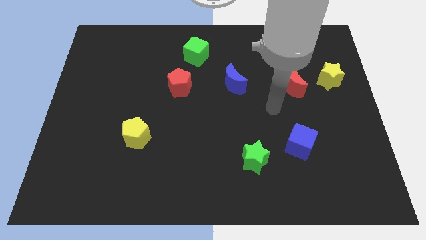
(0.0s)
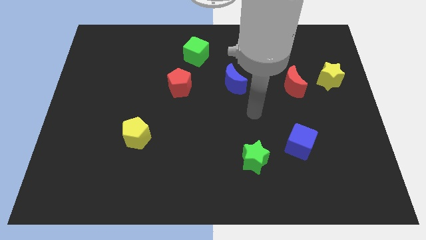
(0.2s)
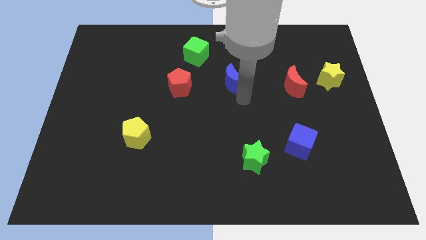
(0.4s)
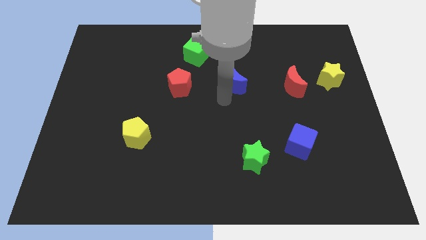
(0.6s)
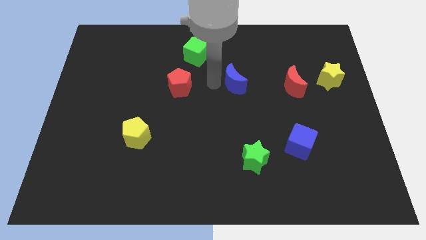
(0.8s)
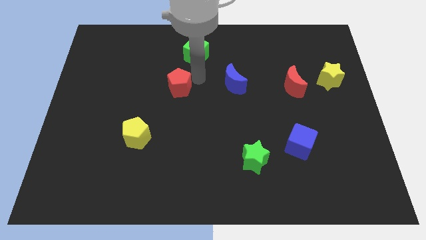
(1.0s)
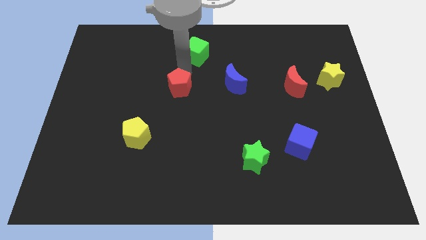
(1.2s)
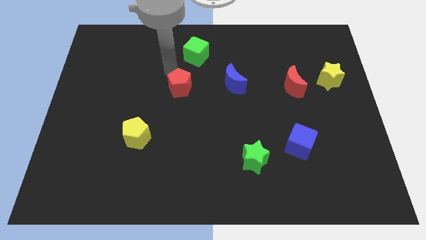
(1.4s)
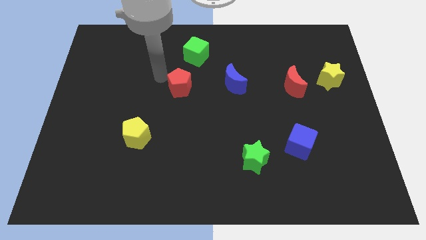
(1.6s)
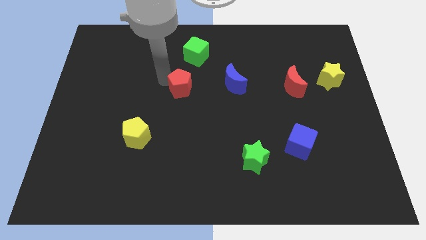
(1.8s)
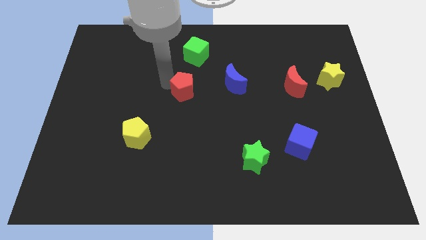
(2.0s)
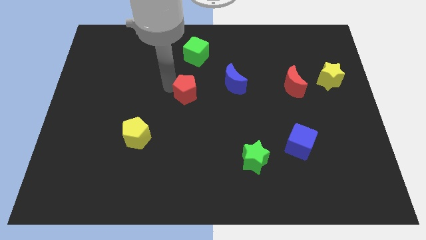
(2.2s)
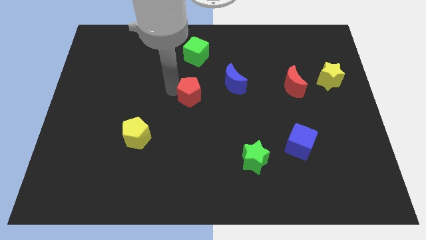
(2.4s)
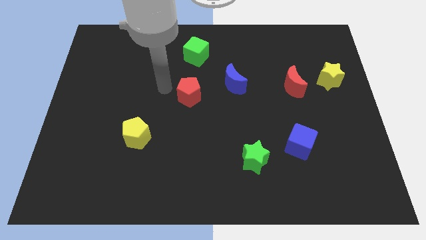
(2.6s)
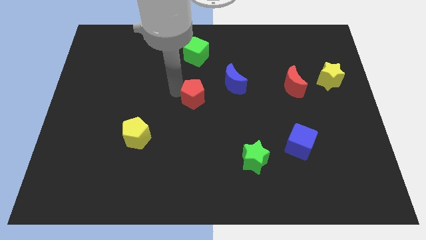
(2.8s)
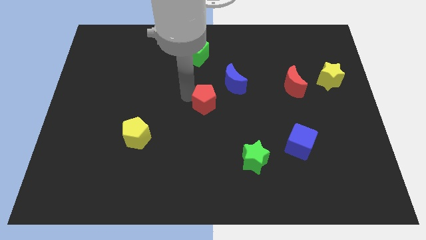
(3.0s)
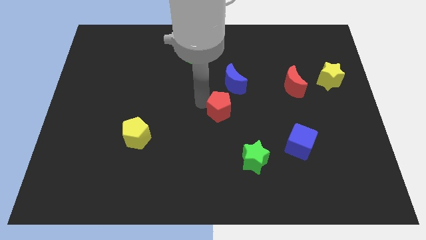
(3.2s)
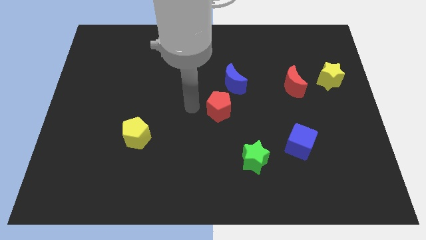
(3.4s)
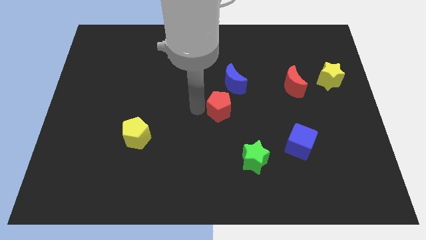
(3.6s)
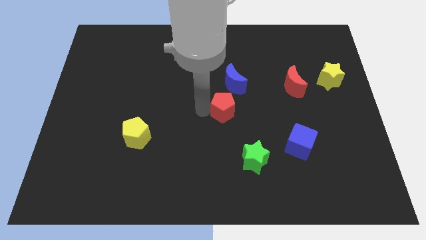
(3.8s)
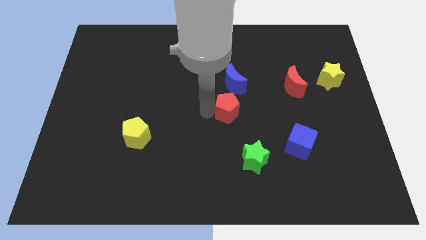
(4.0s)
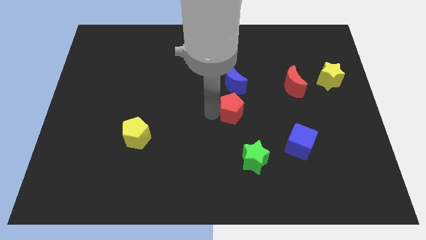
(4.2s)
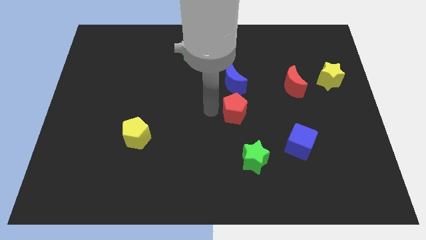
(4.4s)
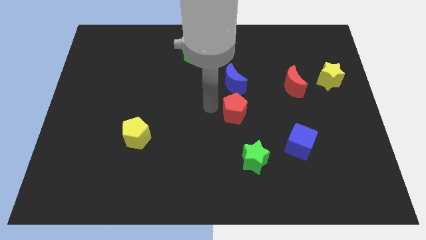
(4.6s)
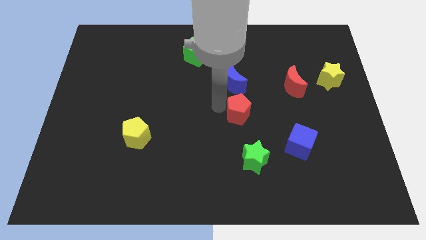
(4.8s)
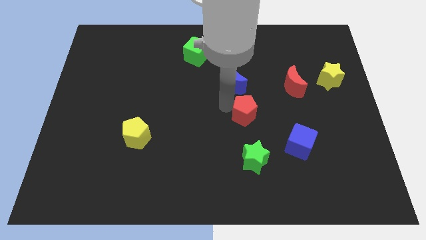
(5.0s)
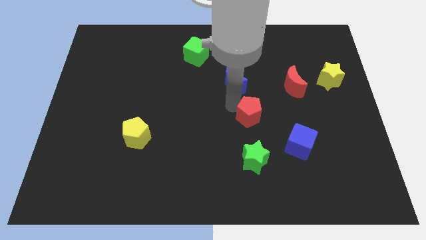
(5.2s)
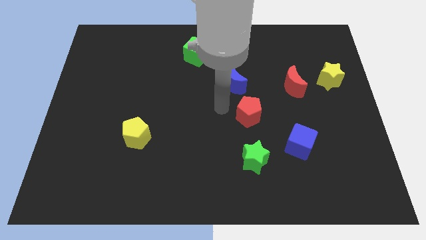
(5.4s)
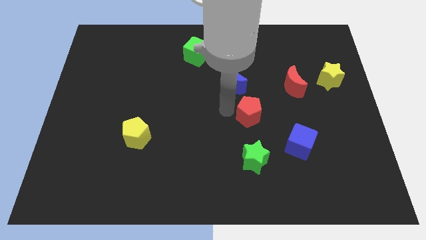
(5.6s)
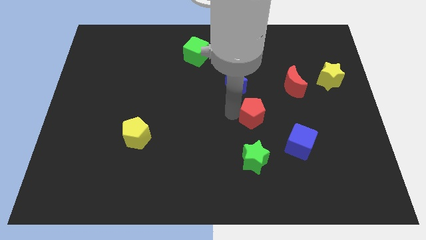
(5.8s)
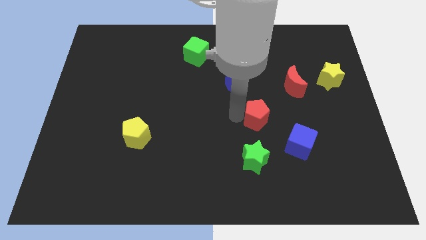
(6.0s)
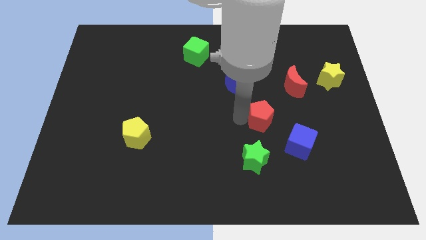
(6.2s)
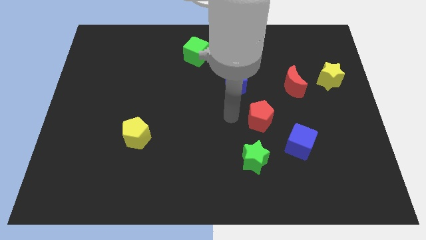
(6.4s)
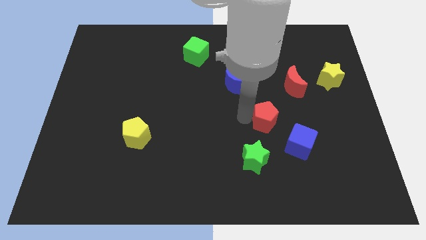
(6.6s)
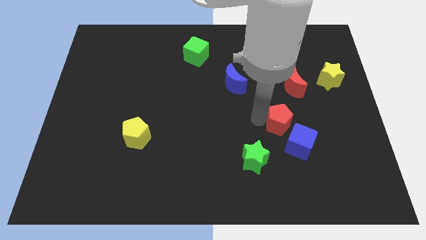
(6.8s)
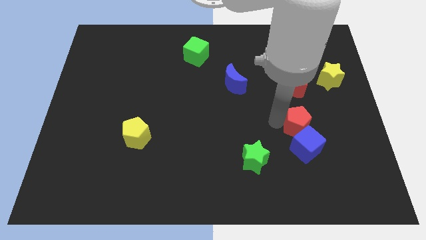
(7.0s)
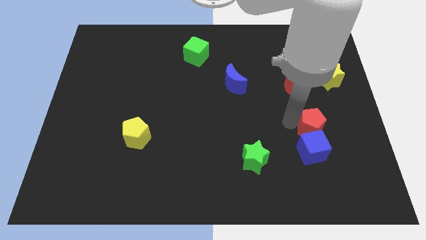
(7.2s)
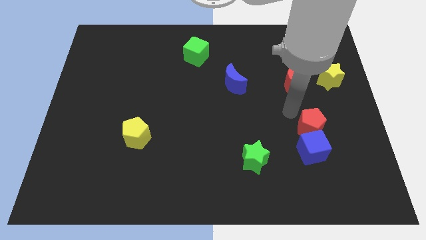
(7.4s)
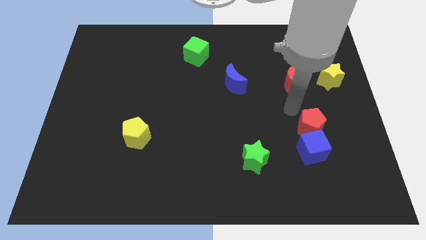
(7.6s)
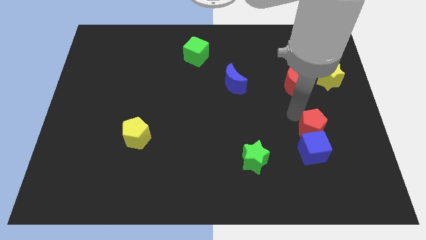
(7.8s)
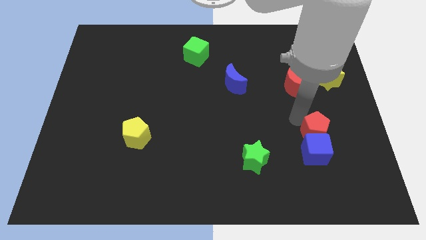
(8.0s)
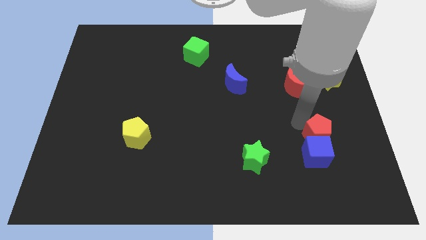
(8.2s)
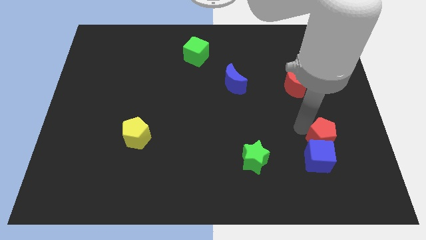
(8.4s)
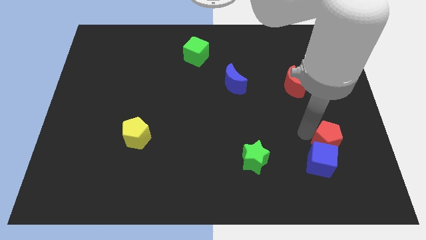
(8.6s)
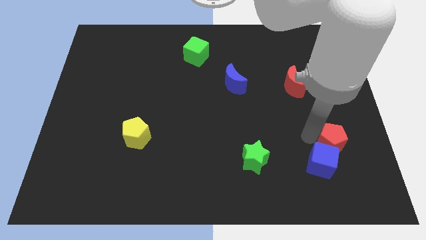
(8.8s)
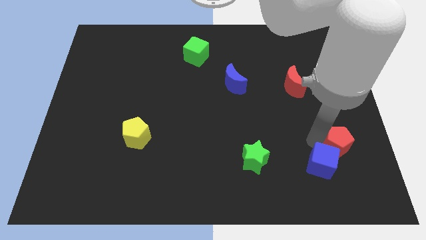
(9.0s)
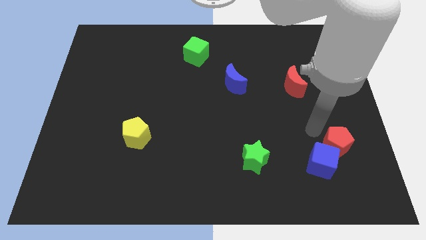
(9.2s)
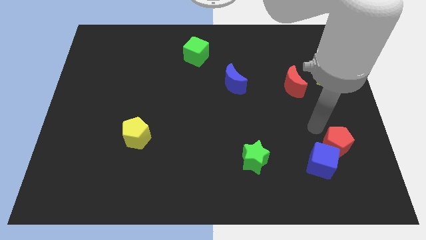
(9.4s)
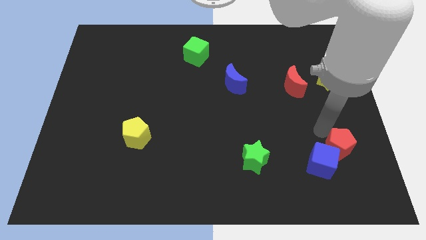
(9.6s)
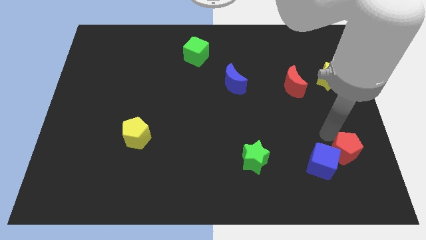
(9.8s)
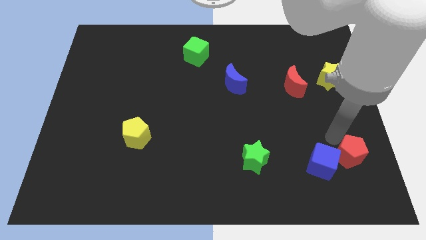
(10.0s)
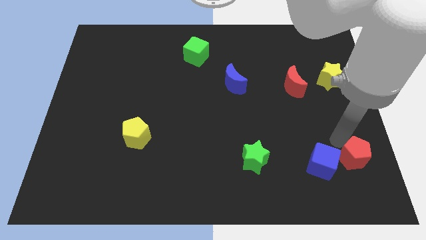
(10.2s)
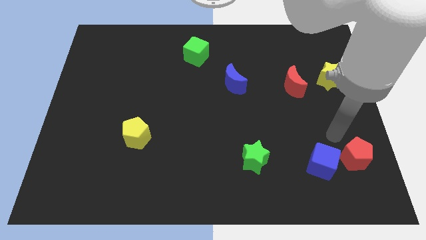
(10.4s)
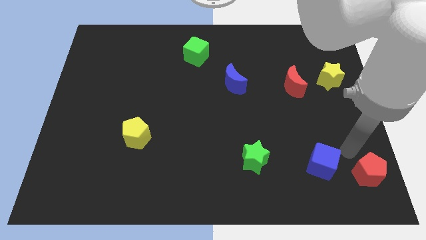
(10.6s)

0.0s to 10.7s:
put the red pentagon to the bottom right of the board

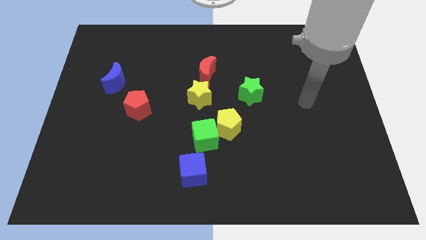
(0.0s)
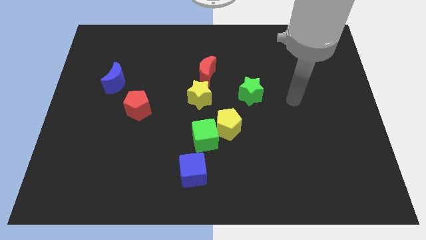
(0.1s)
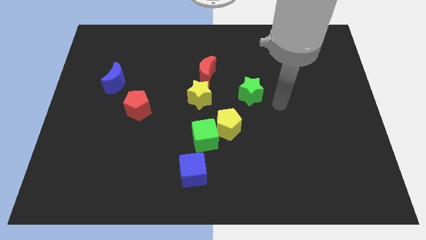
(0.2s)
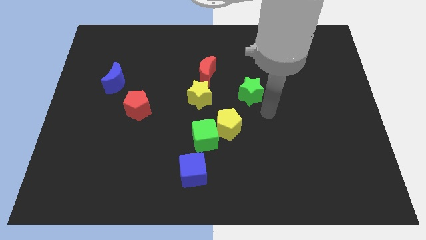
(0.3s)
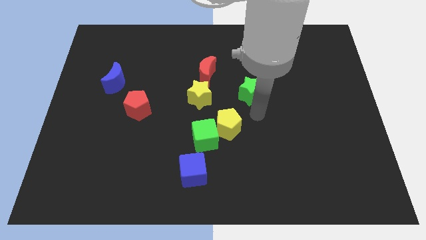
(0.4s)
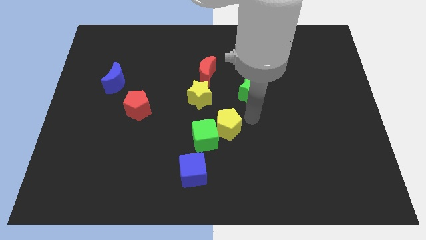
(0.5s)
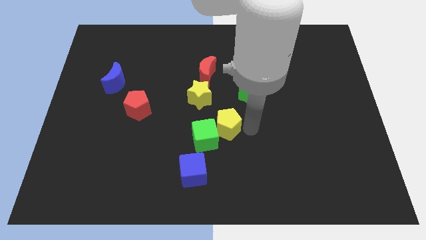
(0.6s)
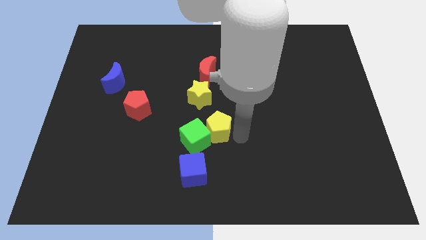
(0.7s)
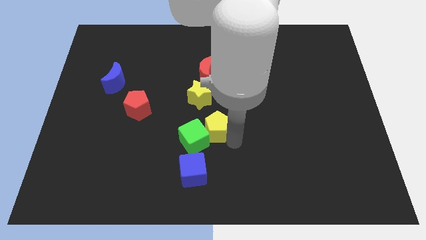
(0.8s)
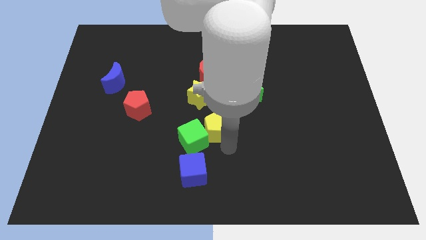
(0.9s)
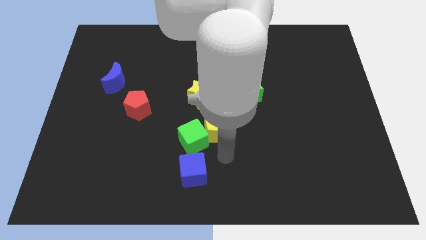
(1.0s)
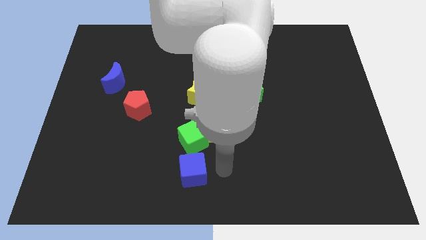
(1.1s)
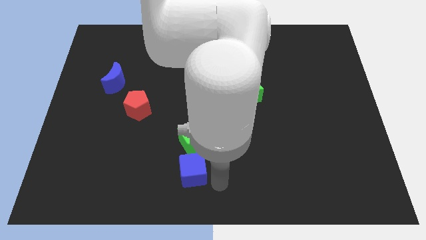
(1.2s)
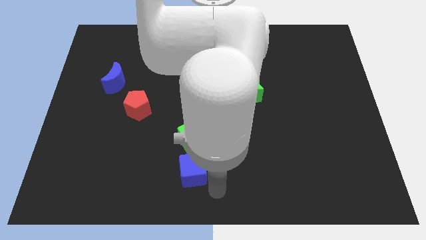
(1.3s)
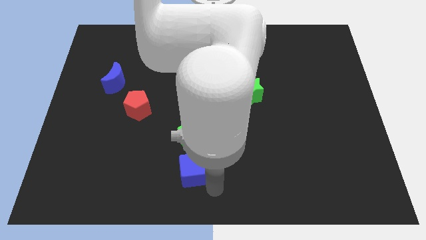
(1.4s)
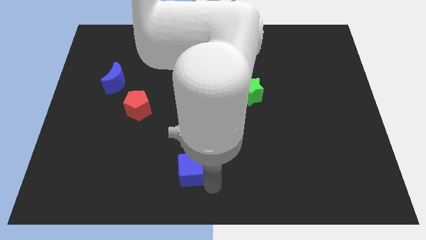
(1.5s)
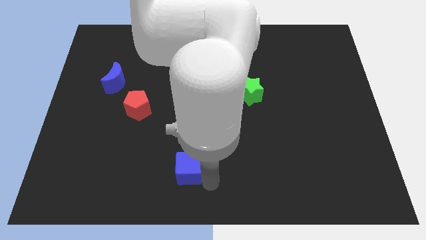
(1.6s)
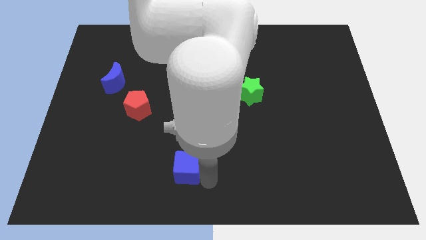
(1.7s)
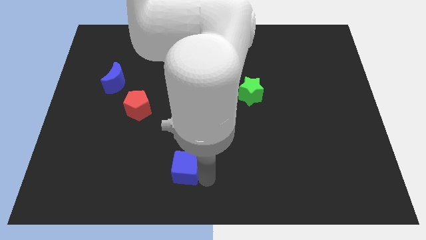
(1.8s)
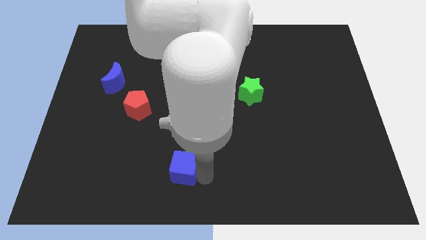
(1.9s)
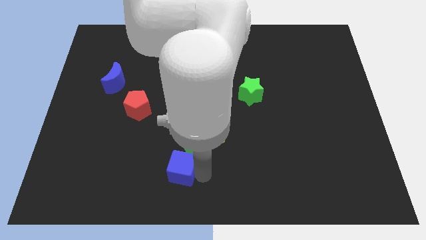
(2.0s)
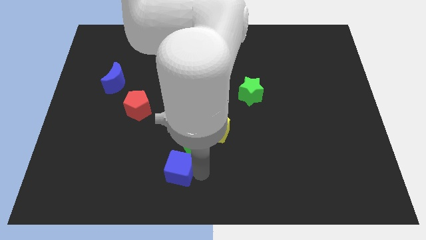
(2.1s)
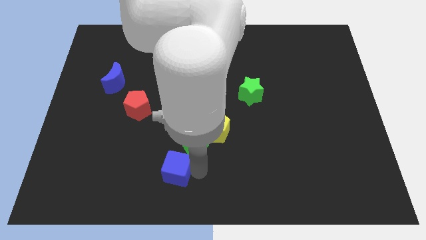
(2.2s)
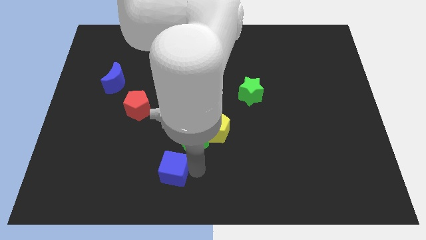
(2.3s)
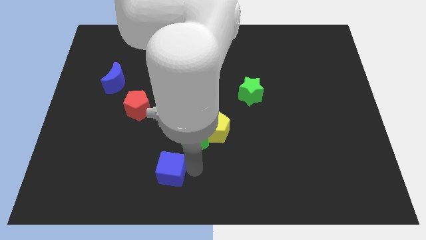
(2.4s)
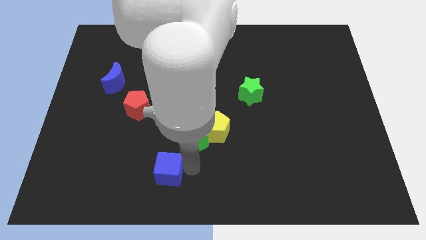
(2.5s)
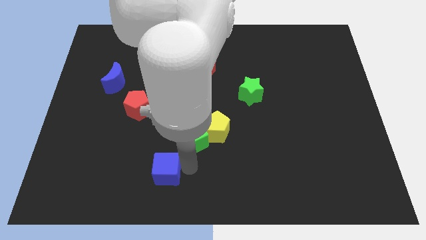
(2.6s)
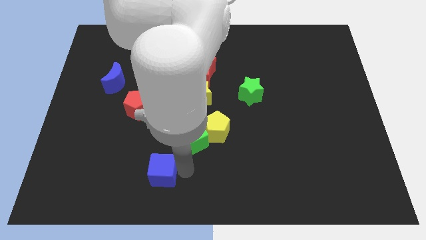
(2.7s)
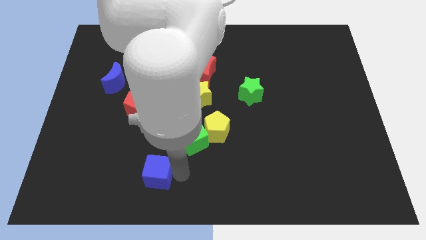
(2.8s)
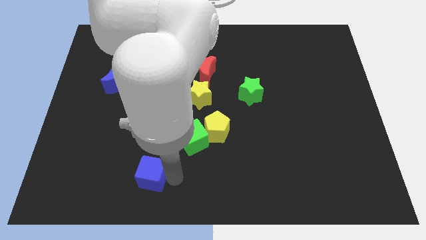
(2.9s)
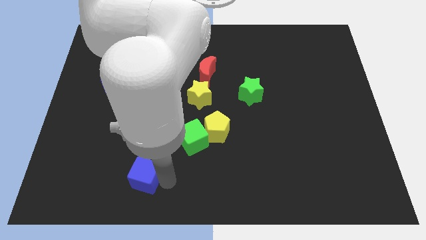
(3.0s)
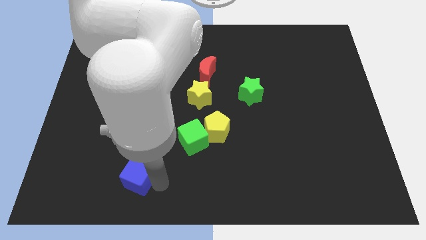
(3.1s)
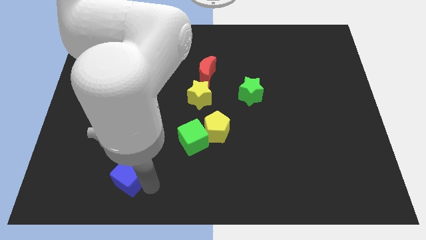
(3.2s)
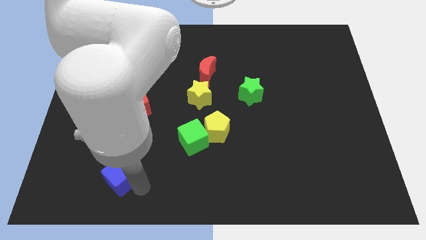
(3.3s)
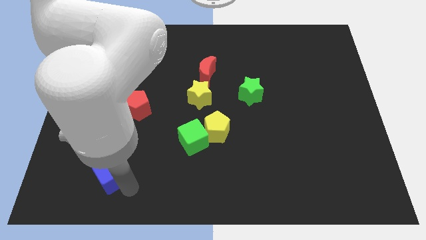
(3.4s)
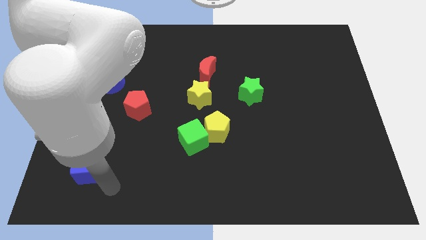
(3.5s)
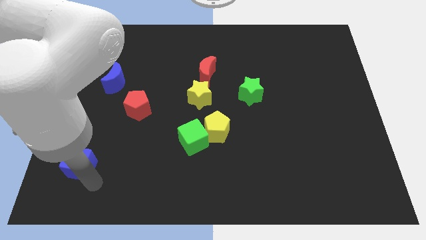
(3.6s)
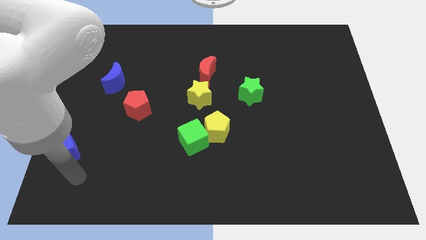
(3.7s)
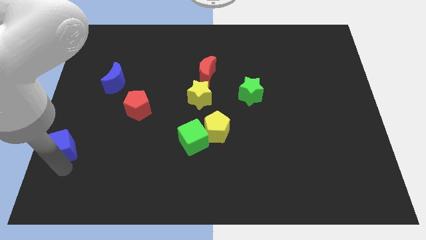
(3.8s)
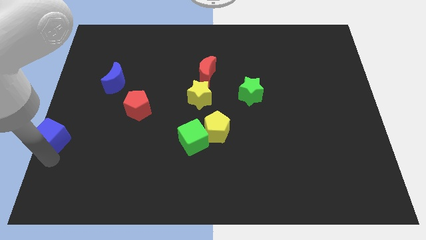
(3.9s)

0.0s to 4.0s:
push the blue cube to the center left
